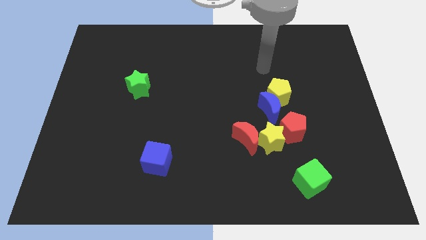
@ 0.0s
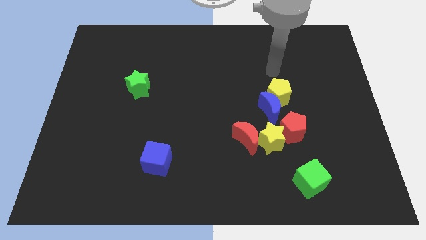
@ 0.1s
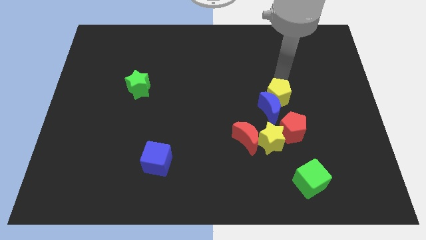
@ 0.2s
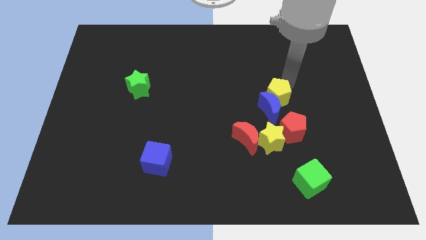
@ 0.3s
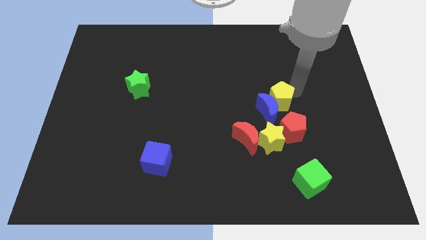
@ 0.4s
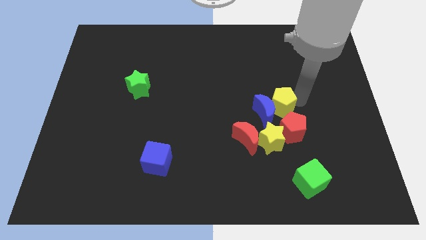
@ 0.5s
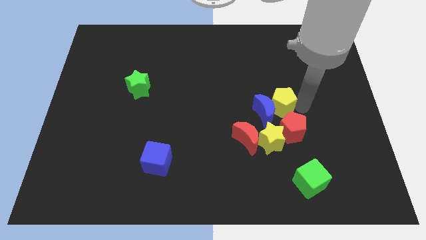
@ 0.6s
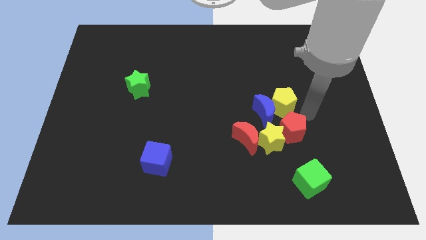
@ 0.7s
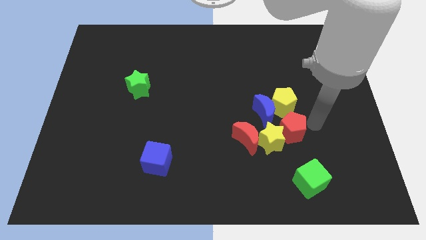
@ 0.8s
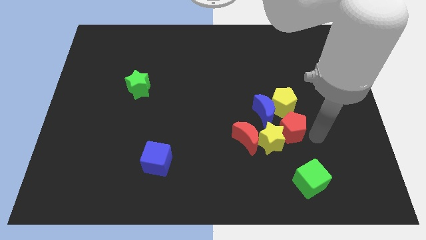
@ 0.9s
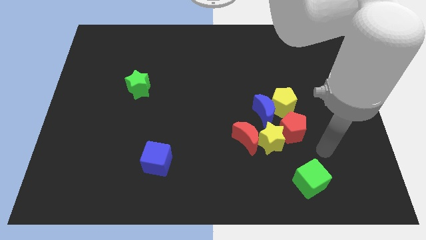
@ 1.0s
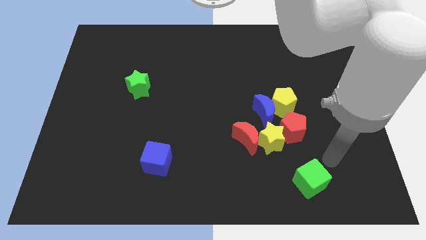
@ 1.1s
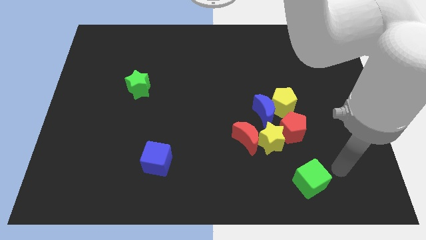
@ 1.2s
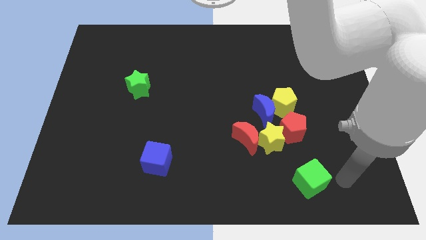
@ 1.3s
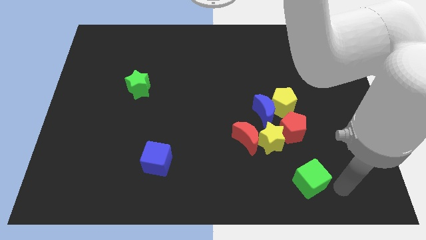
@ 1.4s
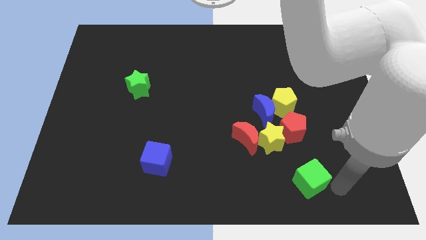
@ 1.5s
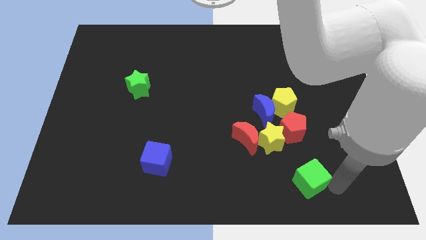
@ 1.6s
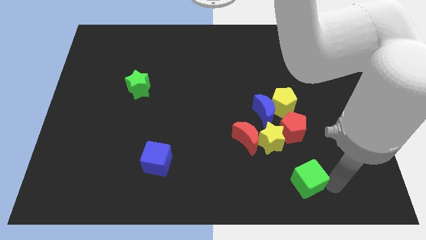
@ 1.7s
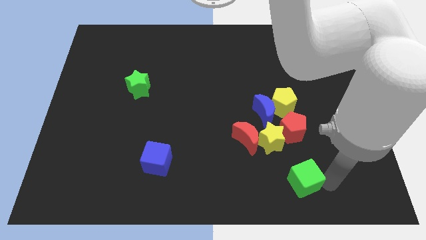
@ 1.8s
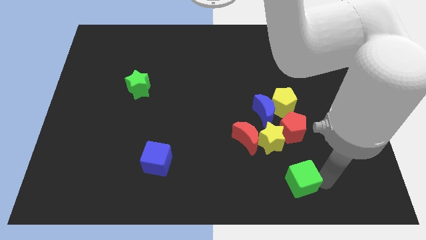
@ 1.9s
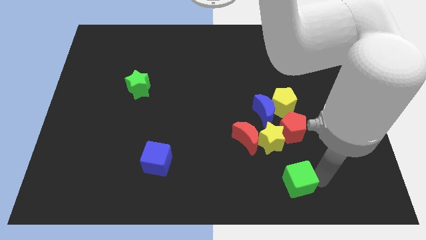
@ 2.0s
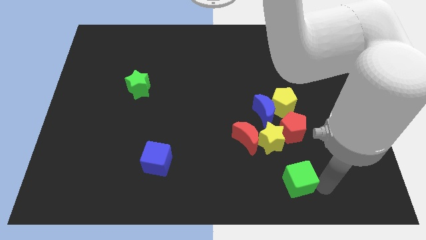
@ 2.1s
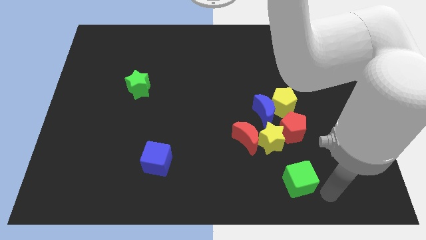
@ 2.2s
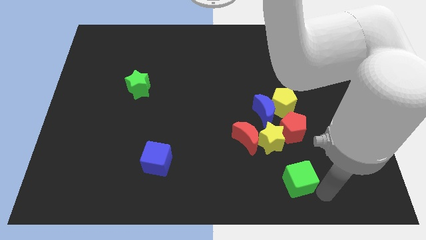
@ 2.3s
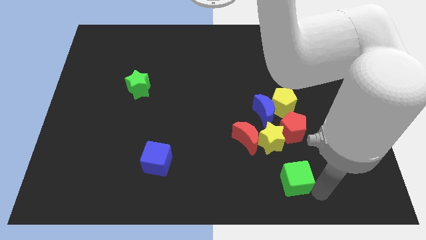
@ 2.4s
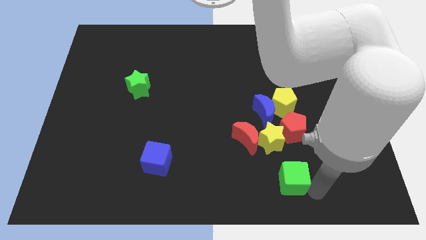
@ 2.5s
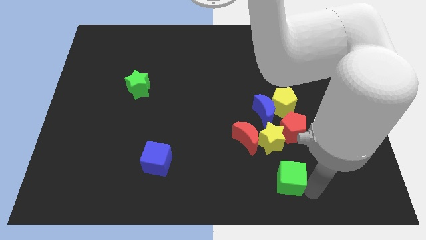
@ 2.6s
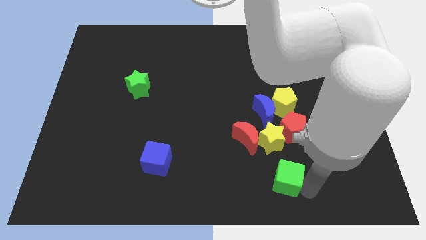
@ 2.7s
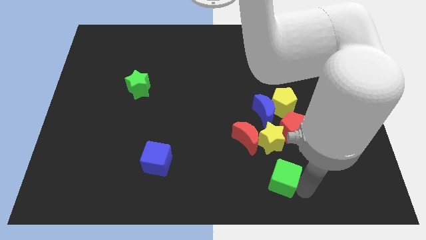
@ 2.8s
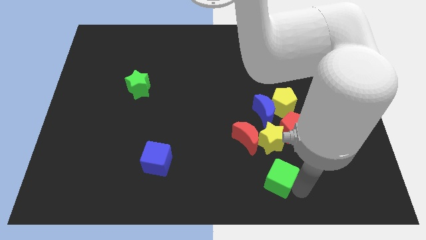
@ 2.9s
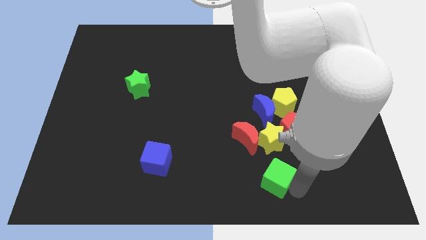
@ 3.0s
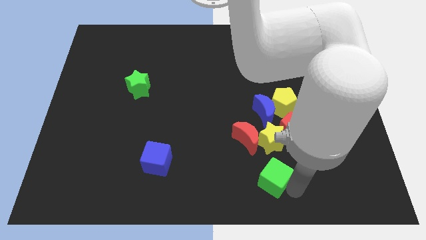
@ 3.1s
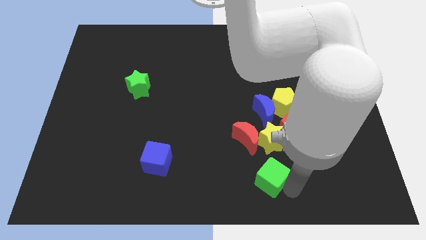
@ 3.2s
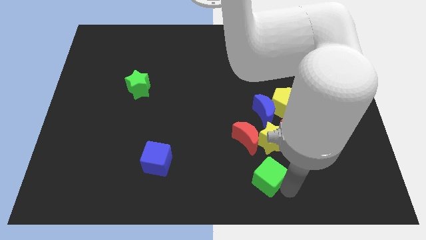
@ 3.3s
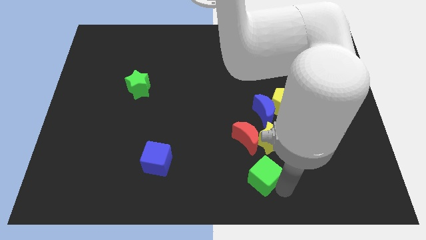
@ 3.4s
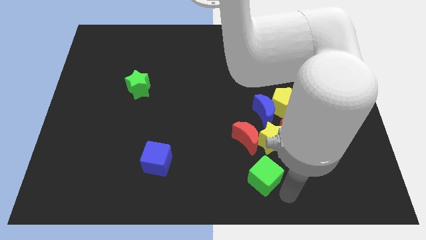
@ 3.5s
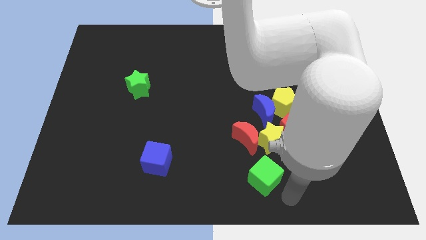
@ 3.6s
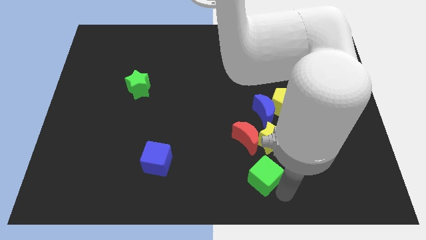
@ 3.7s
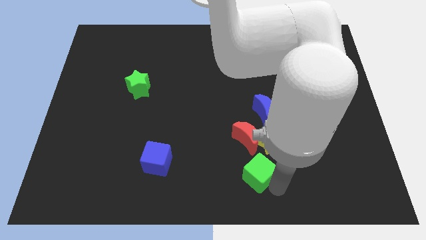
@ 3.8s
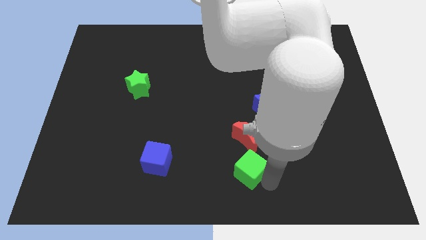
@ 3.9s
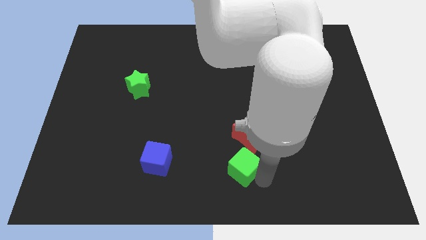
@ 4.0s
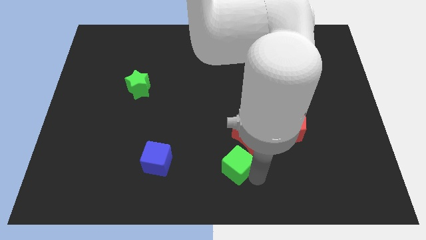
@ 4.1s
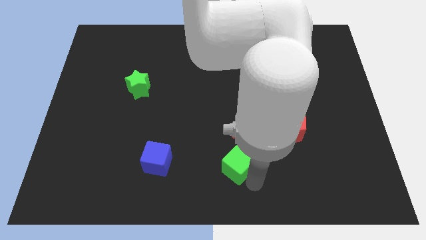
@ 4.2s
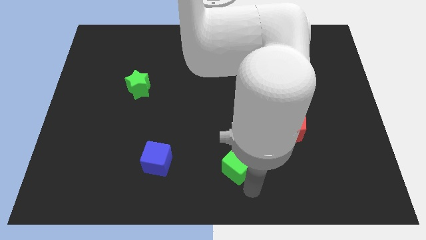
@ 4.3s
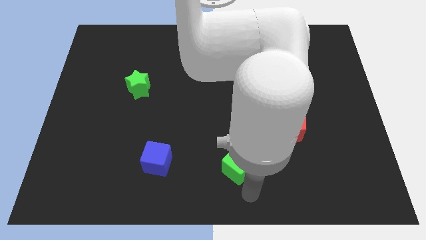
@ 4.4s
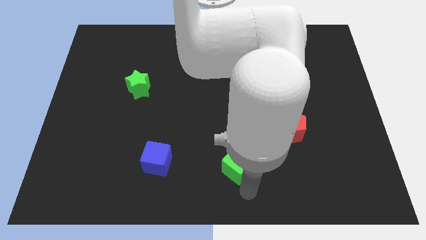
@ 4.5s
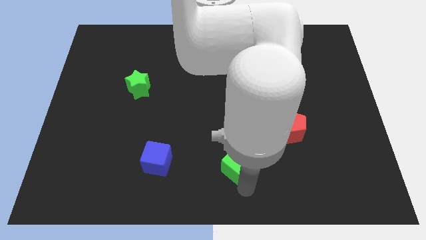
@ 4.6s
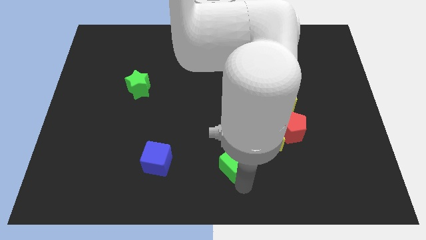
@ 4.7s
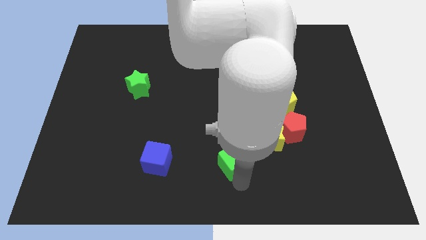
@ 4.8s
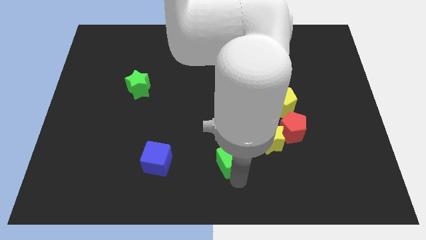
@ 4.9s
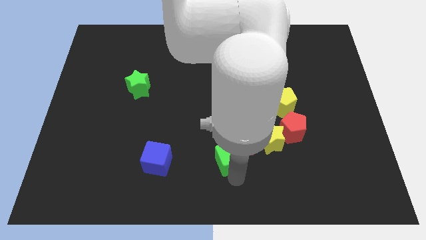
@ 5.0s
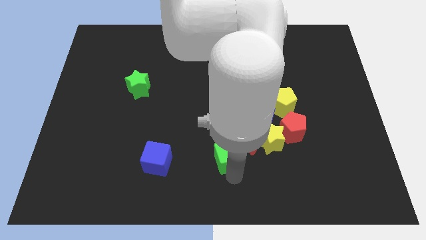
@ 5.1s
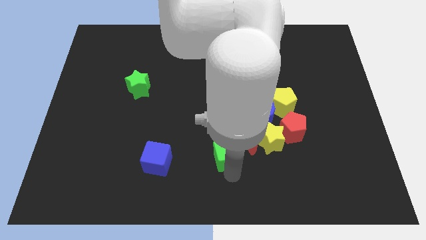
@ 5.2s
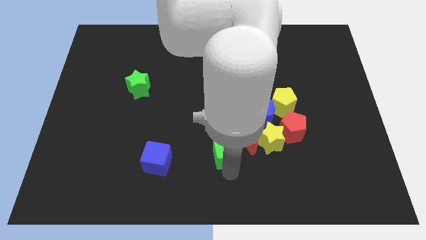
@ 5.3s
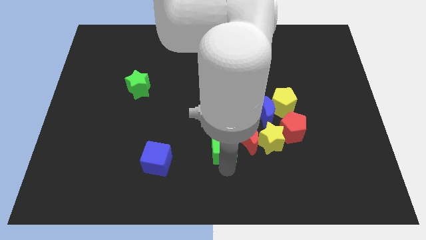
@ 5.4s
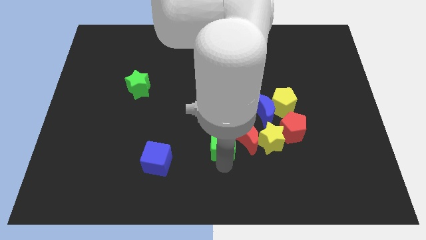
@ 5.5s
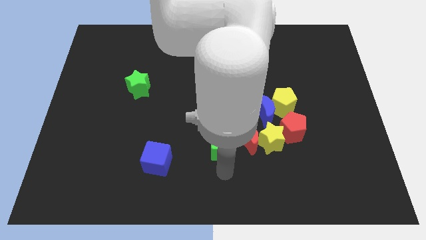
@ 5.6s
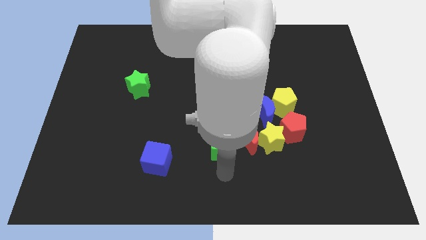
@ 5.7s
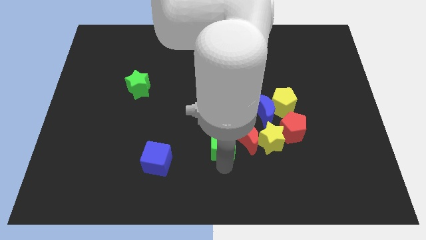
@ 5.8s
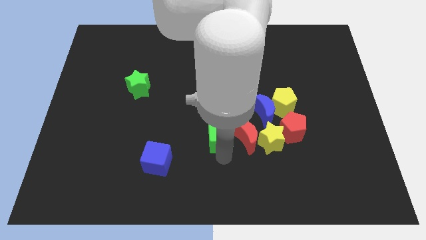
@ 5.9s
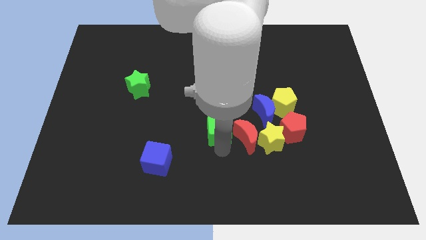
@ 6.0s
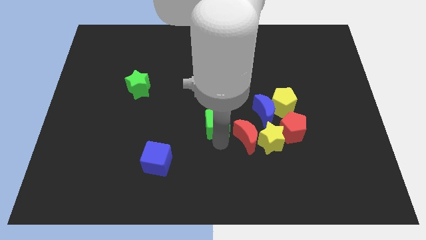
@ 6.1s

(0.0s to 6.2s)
push the green cube to the left side of the blue moon

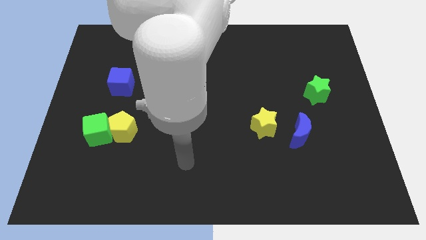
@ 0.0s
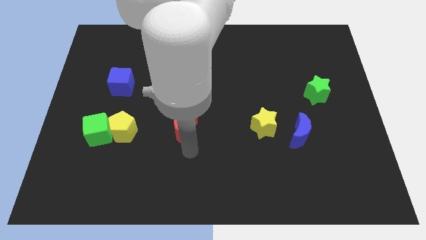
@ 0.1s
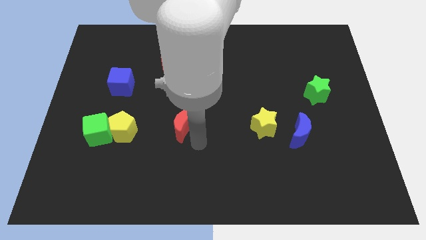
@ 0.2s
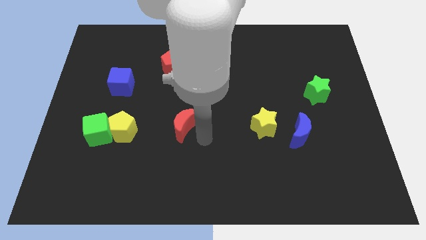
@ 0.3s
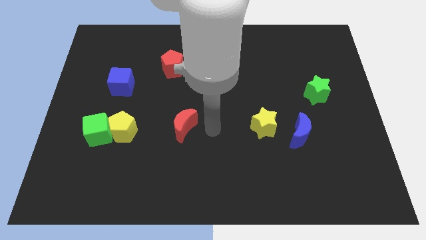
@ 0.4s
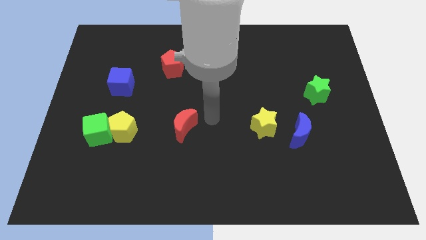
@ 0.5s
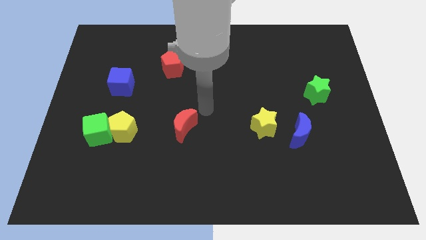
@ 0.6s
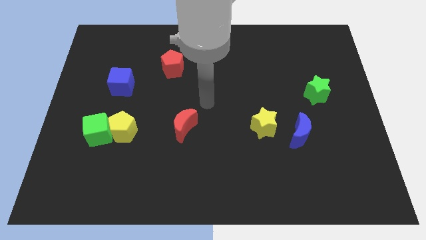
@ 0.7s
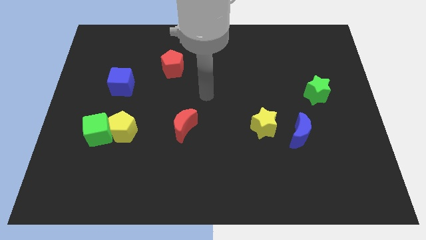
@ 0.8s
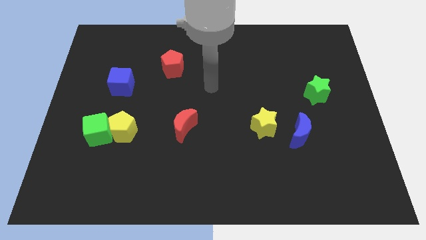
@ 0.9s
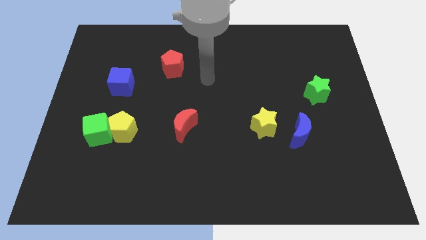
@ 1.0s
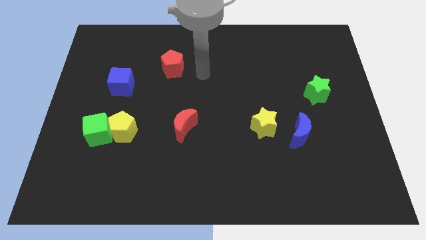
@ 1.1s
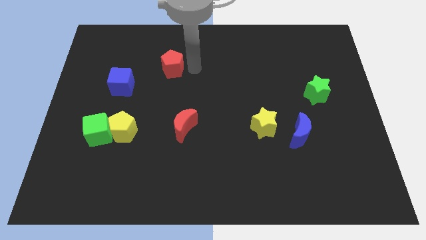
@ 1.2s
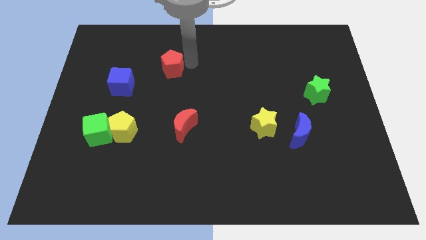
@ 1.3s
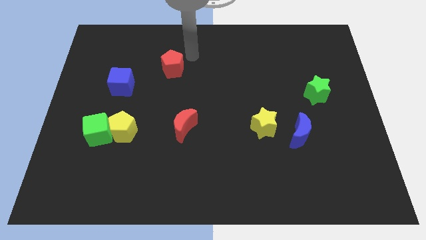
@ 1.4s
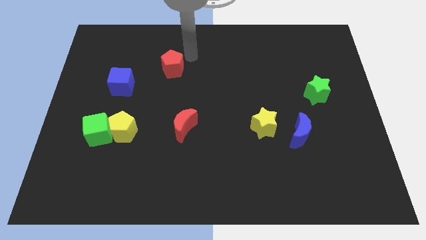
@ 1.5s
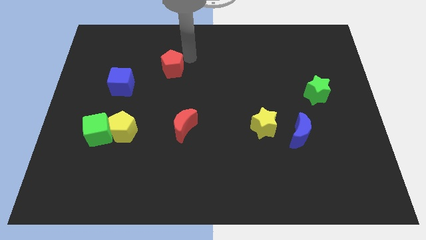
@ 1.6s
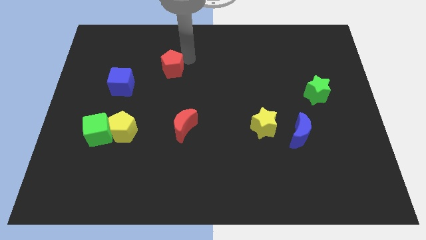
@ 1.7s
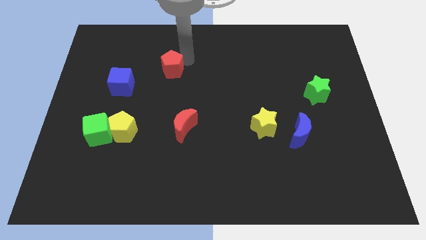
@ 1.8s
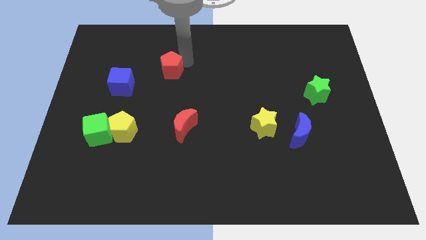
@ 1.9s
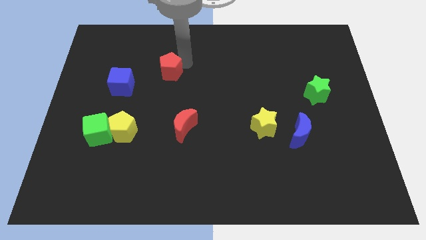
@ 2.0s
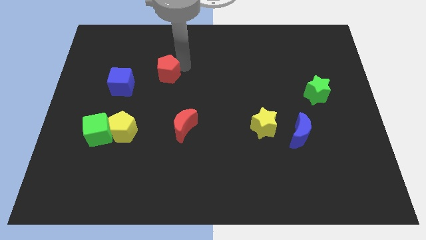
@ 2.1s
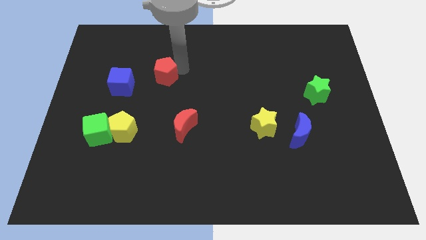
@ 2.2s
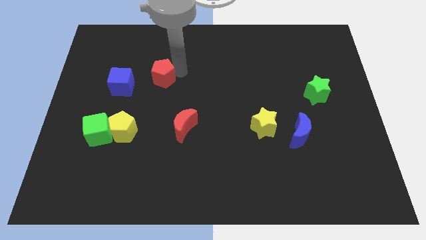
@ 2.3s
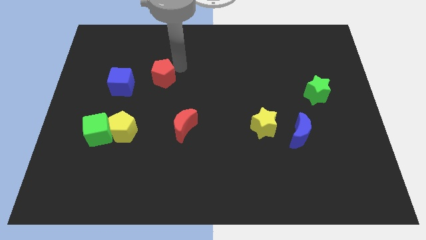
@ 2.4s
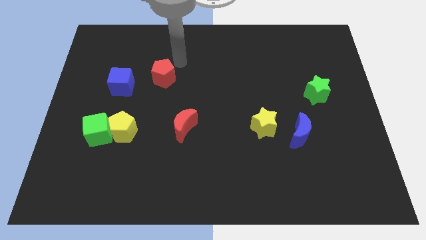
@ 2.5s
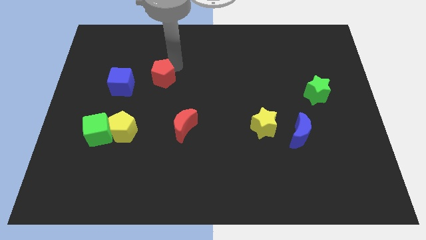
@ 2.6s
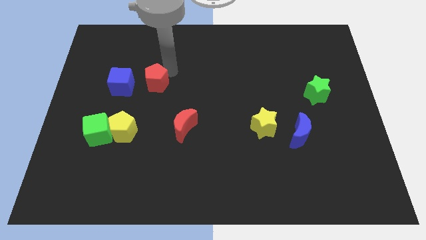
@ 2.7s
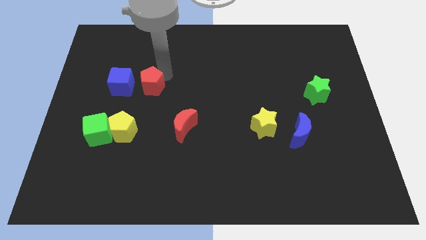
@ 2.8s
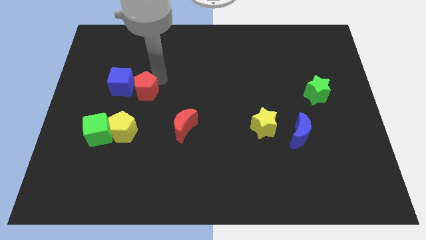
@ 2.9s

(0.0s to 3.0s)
slide the red pentagon to the bottom right of the blue cube
